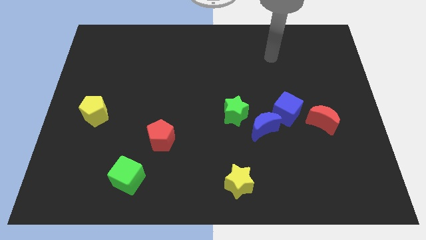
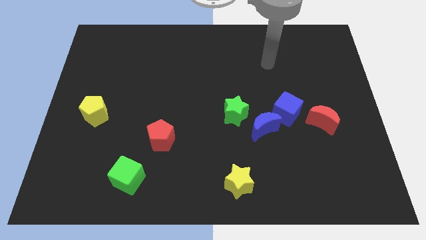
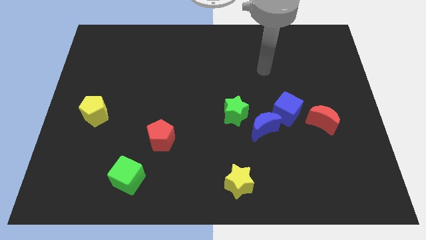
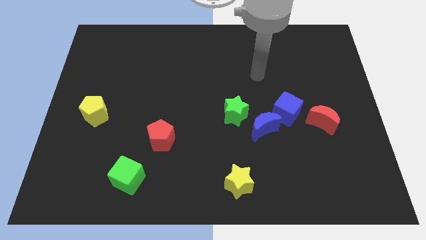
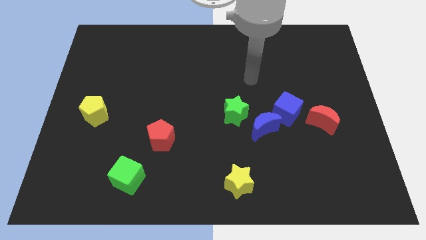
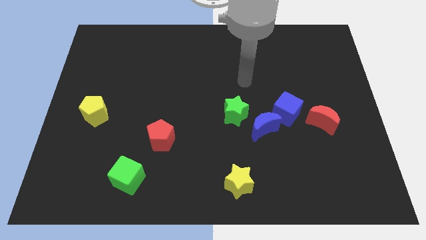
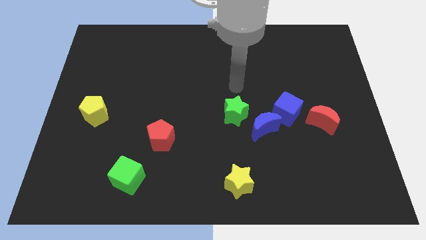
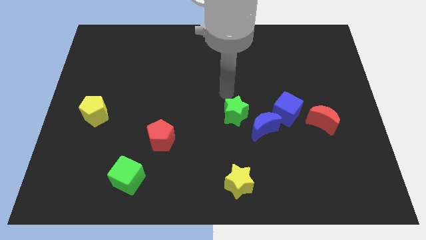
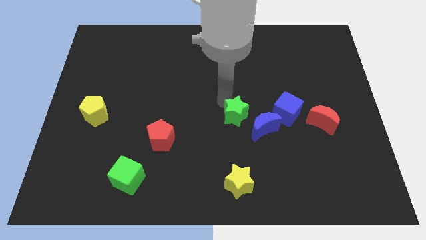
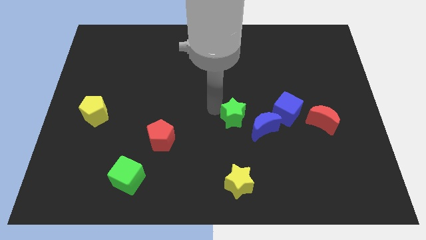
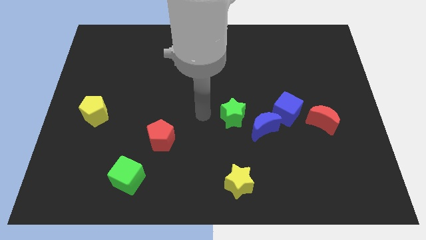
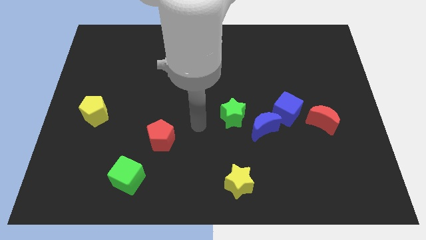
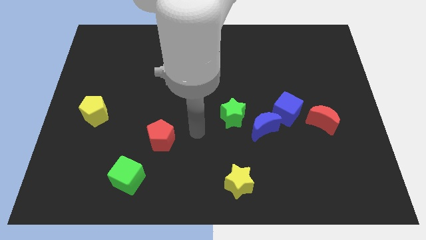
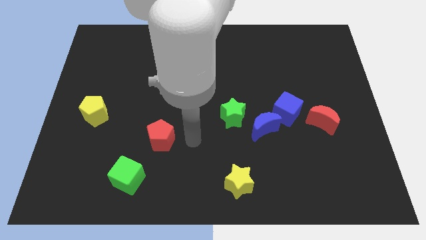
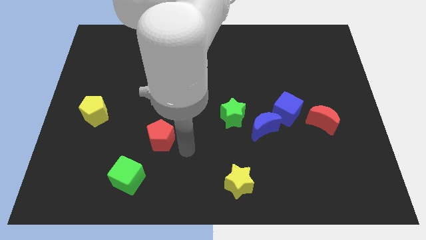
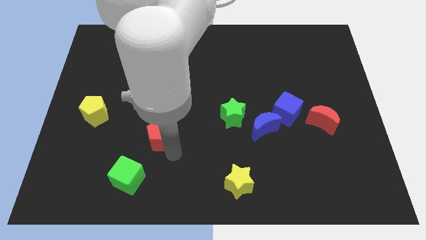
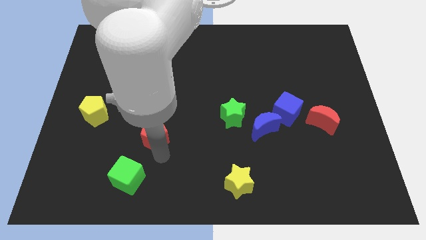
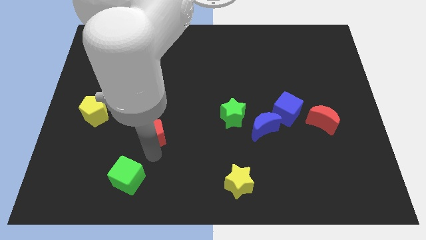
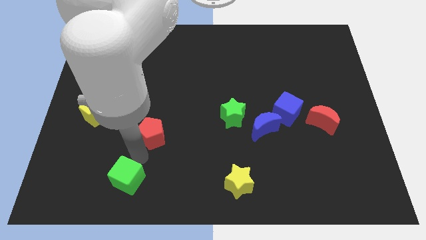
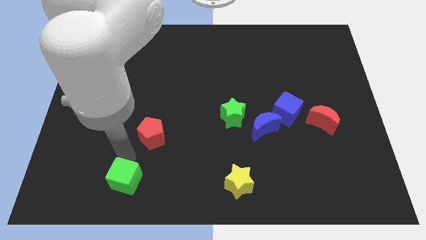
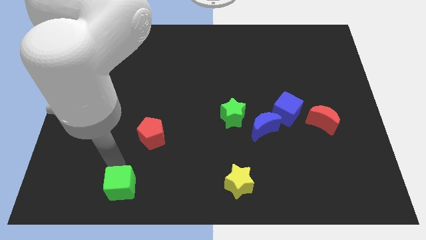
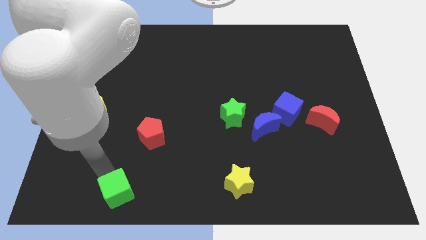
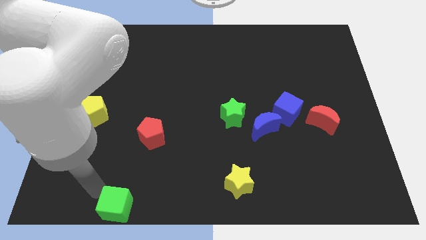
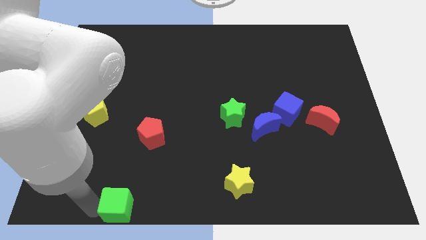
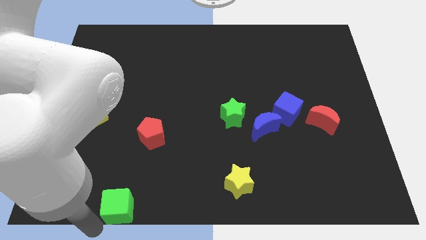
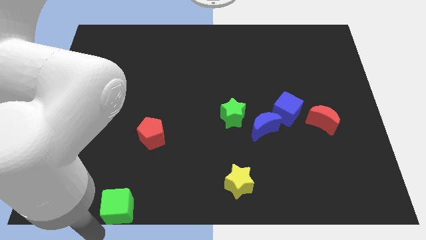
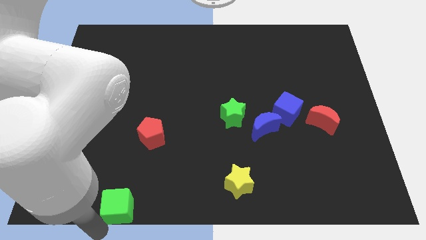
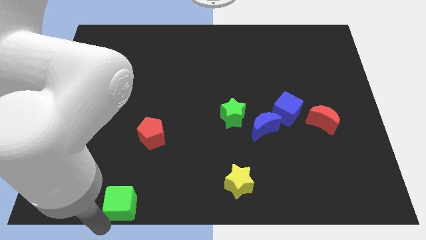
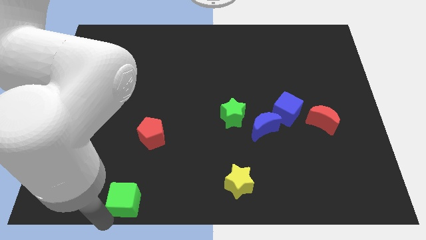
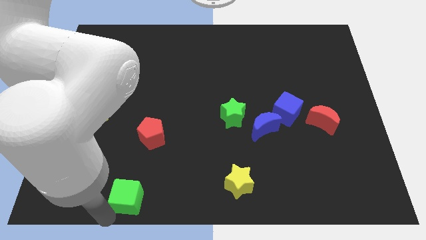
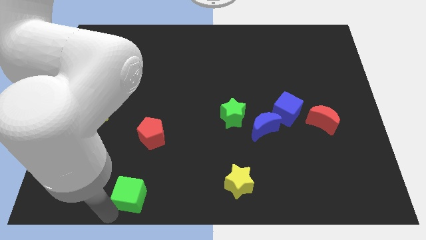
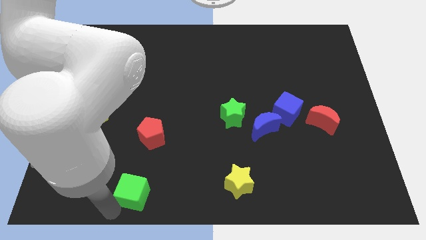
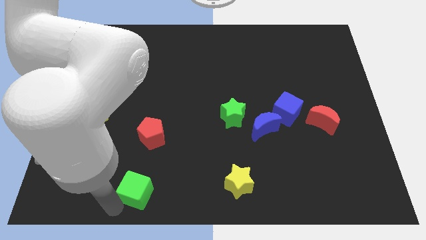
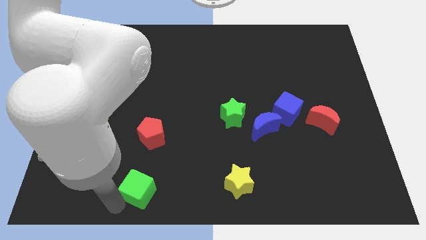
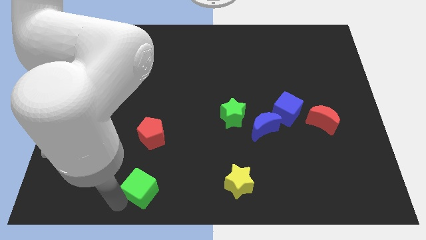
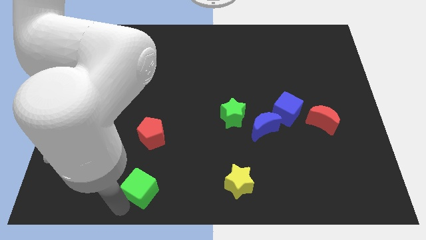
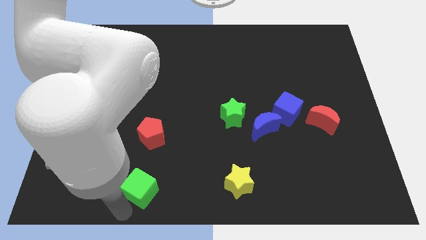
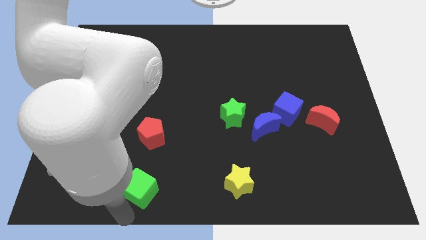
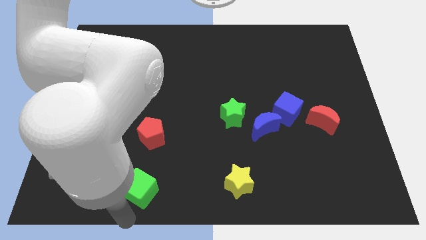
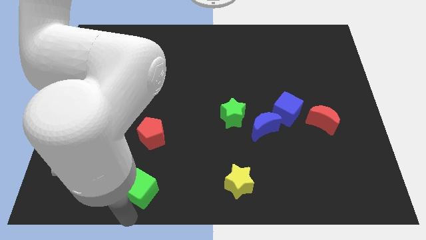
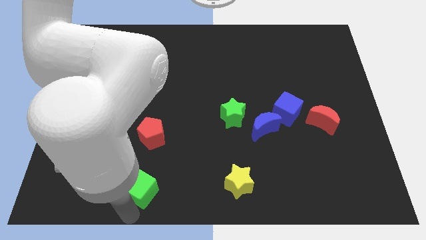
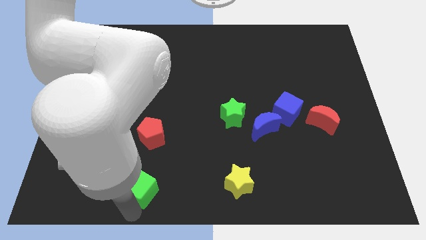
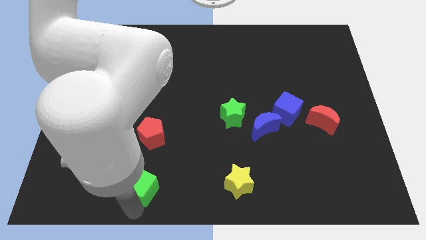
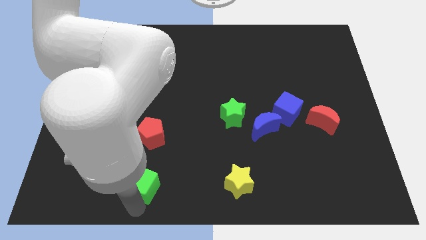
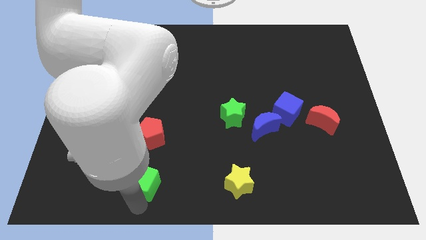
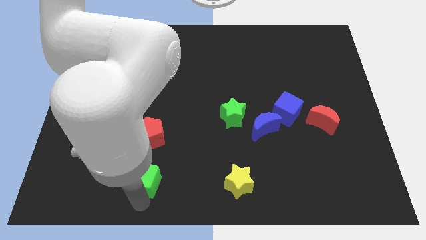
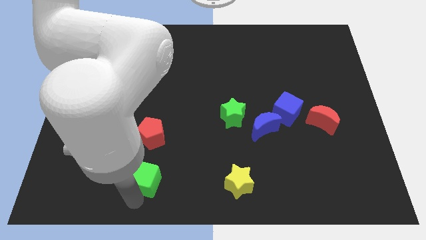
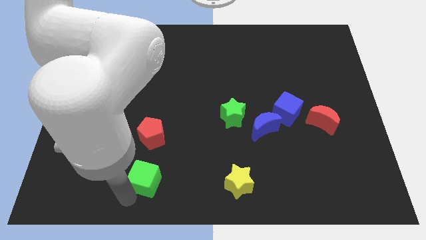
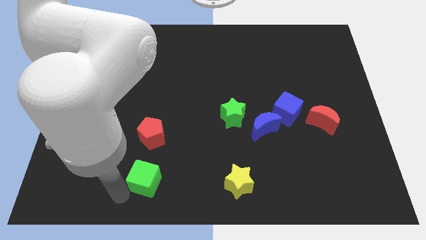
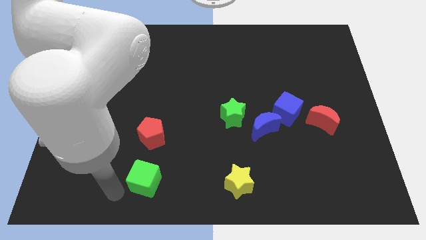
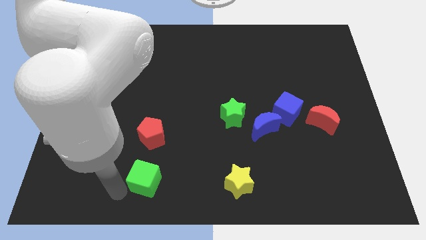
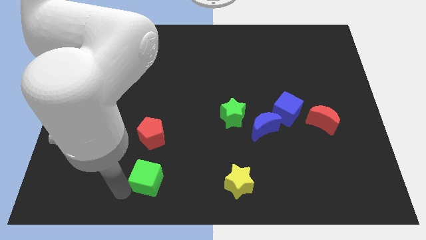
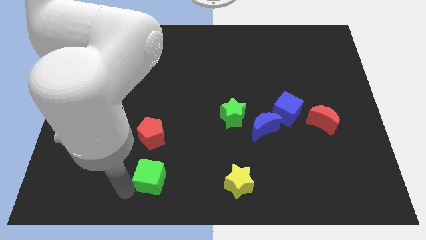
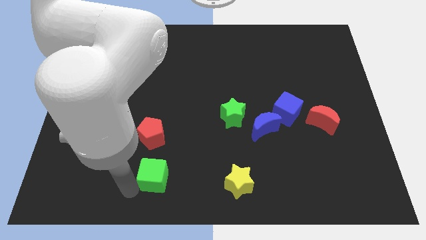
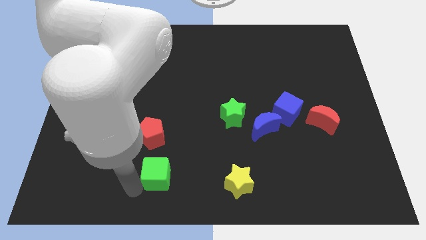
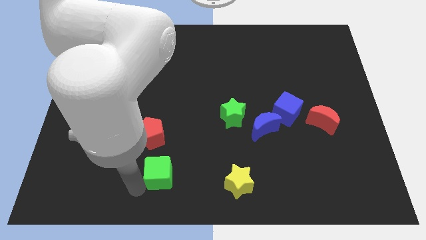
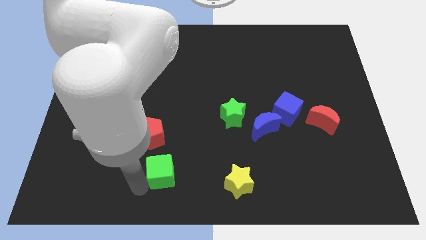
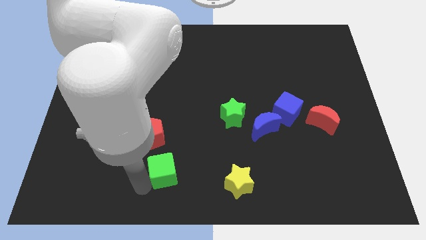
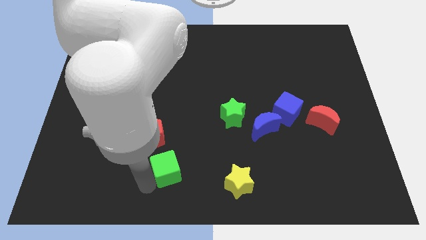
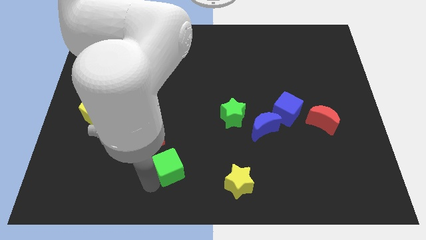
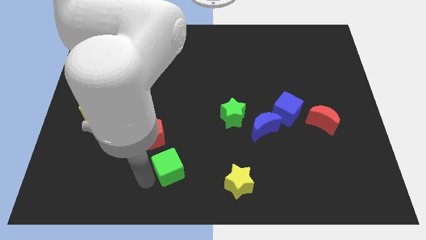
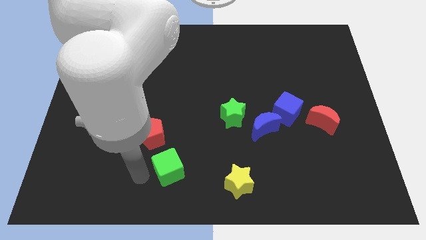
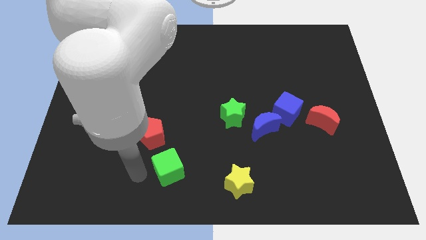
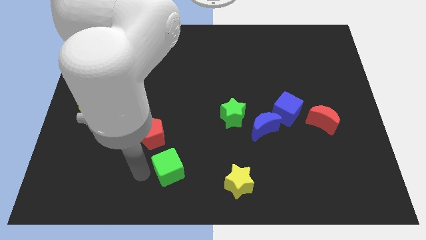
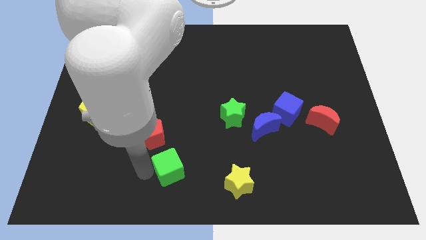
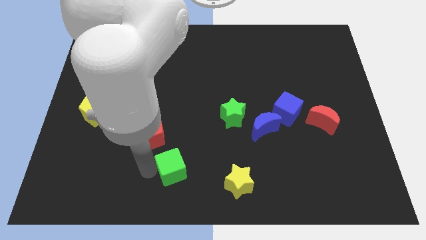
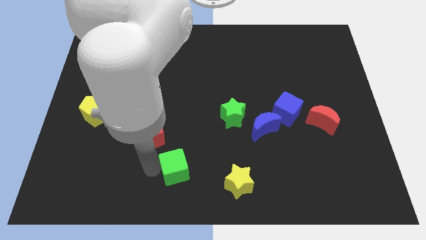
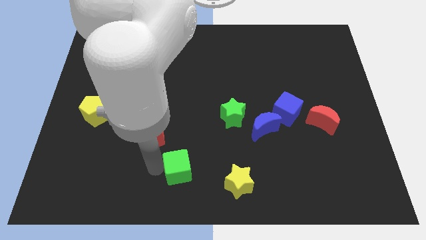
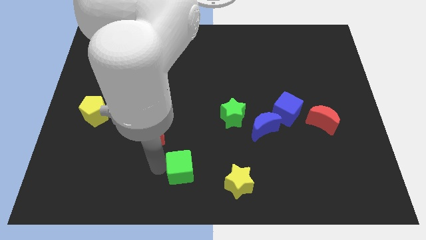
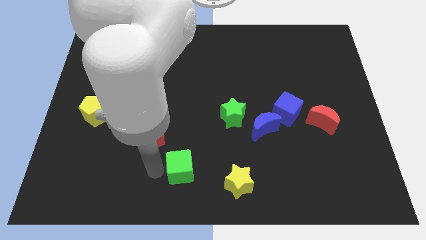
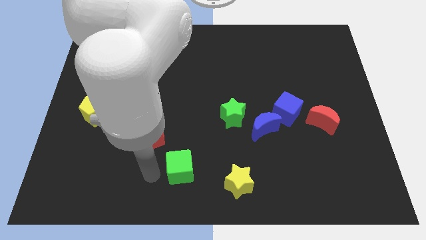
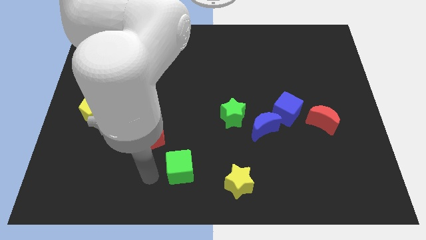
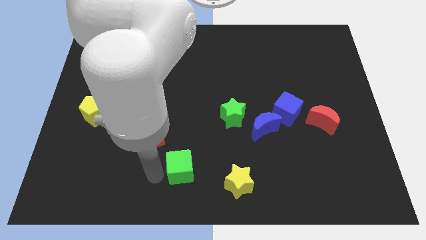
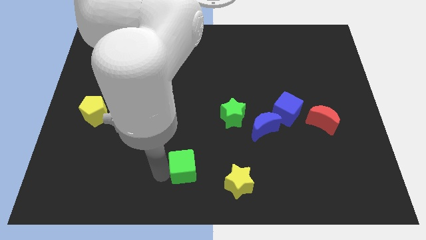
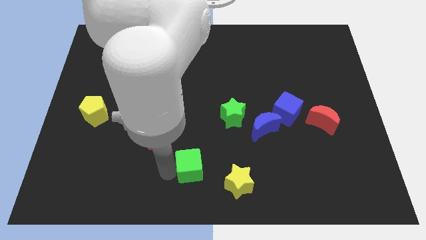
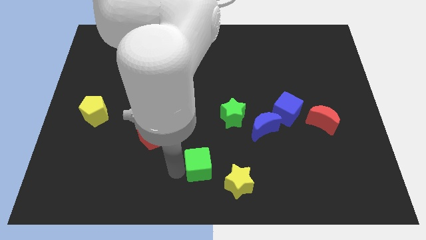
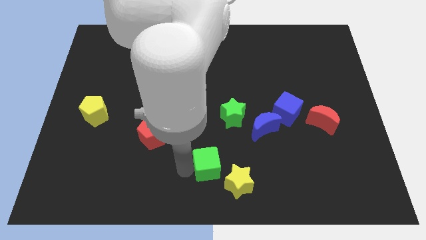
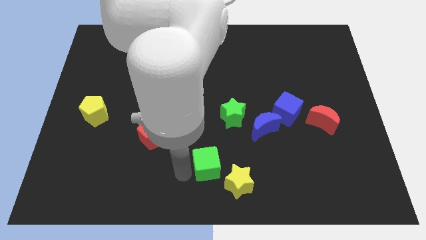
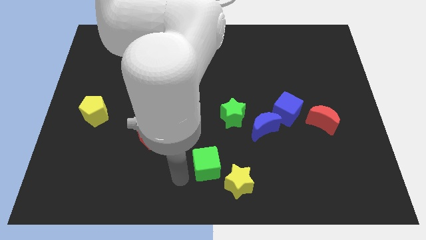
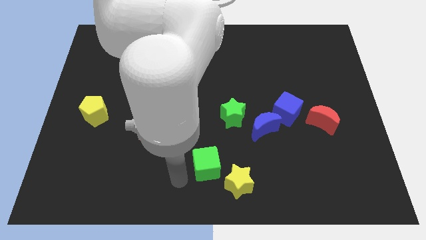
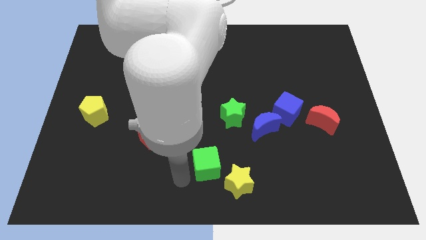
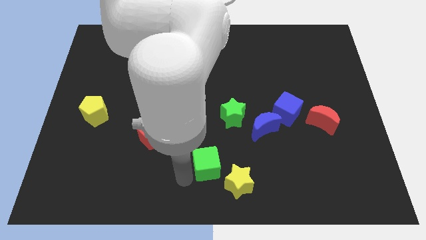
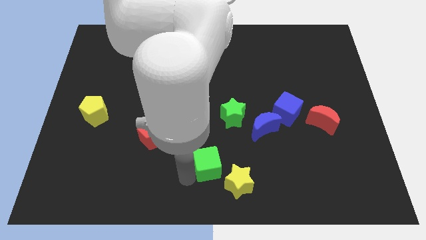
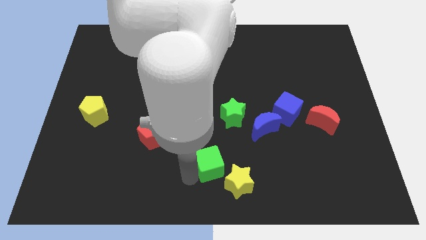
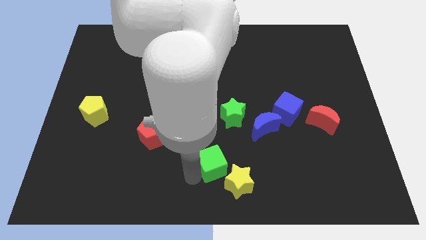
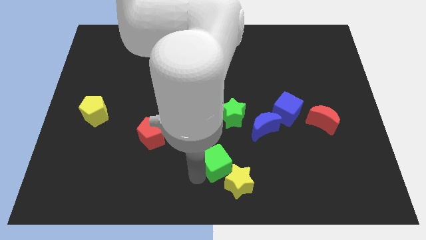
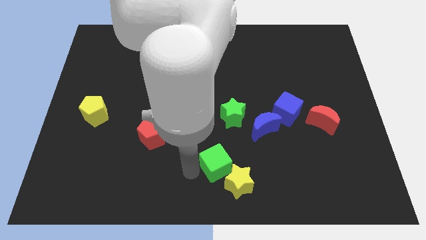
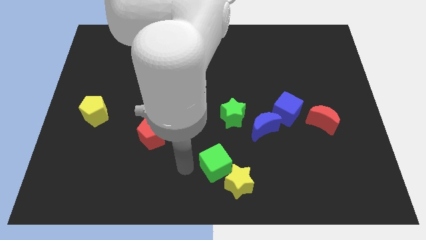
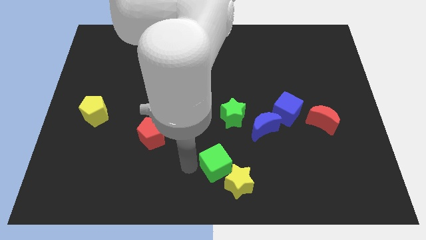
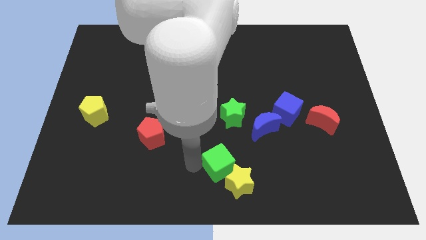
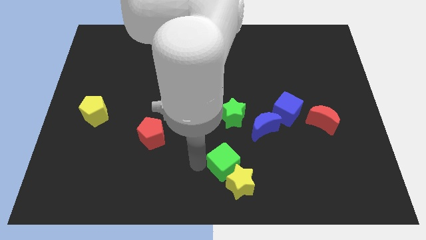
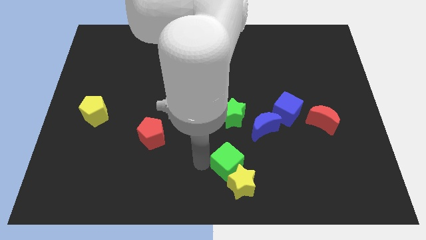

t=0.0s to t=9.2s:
slide the green cube to the right
